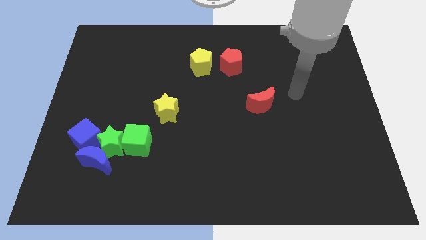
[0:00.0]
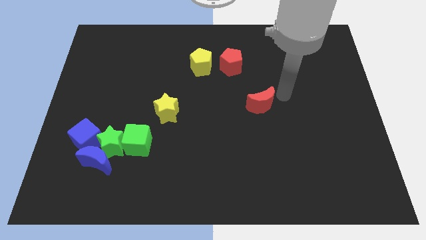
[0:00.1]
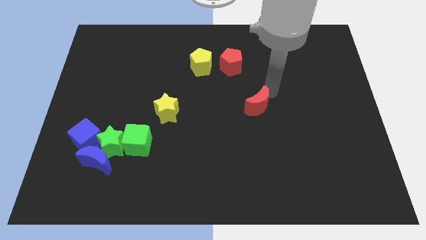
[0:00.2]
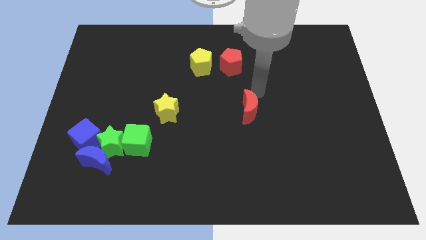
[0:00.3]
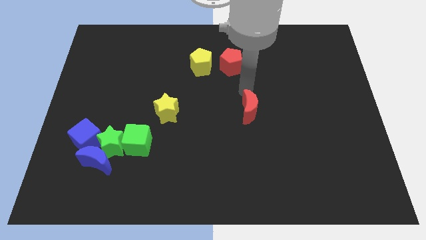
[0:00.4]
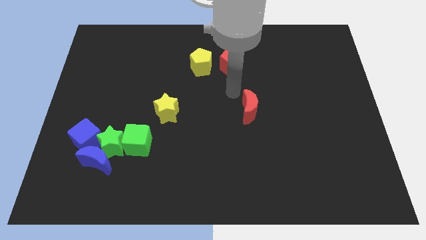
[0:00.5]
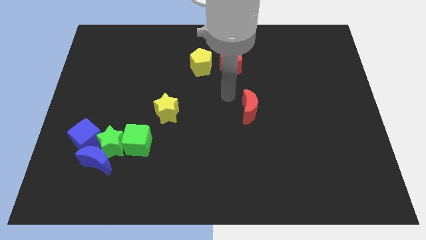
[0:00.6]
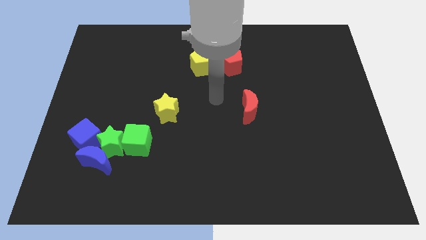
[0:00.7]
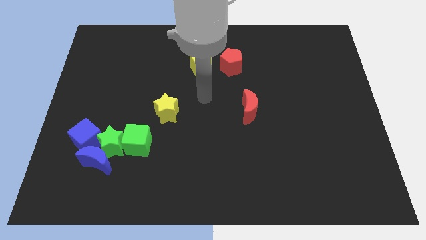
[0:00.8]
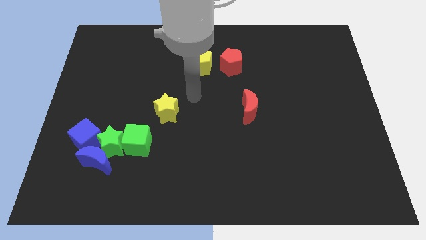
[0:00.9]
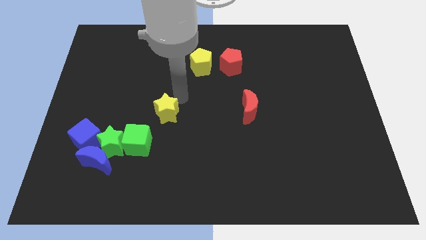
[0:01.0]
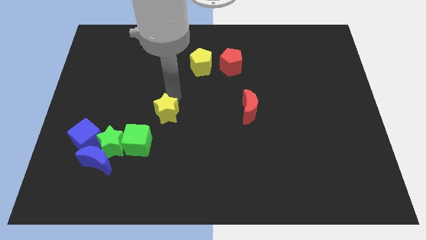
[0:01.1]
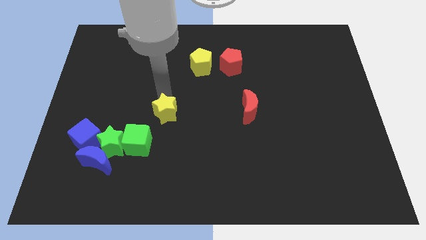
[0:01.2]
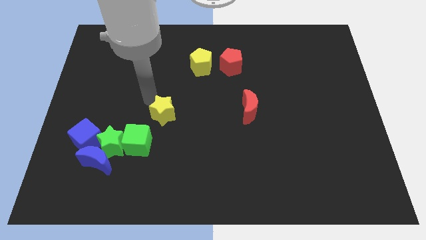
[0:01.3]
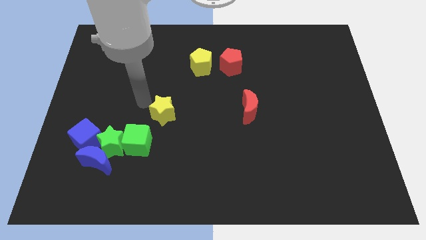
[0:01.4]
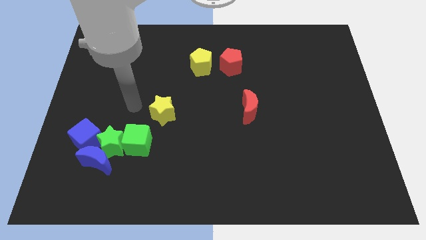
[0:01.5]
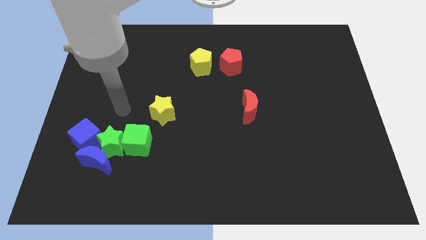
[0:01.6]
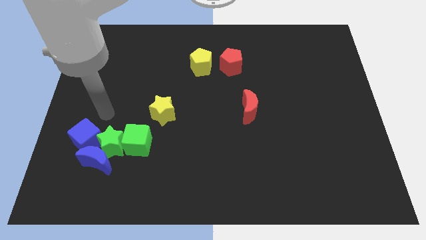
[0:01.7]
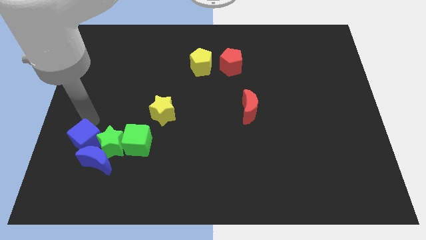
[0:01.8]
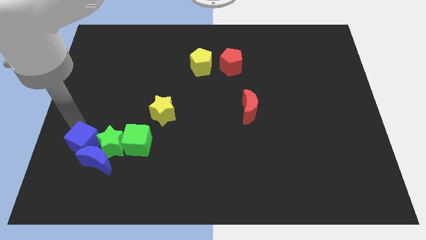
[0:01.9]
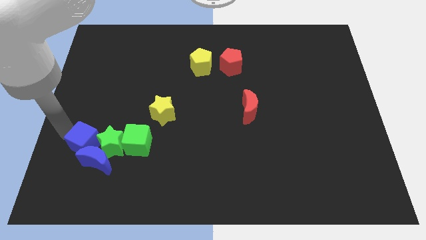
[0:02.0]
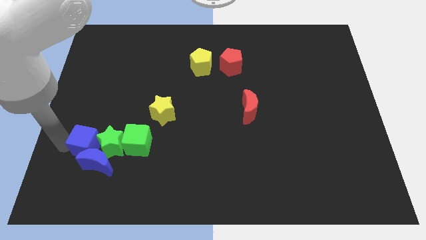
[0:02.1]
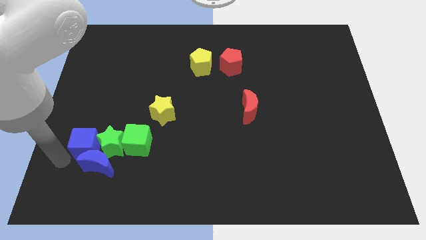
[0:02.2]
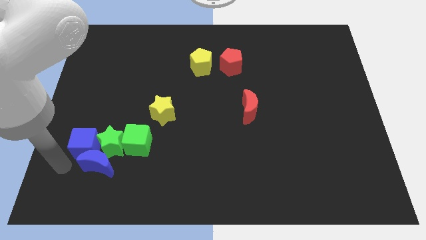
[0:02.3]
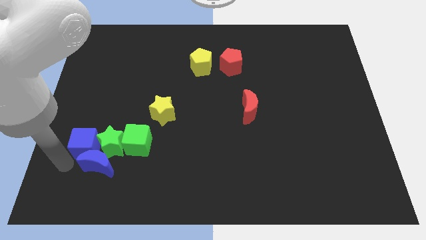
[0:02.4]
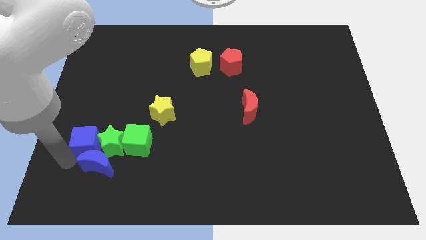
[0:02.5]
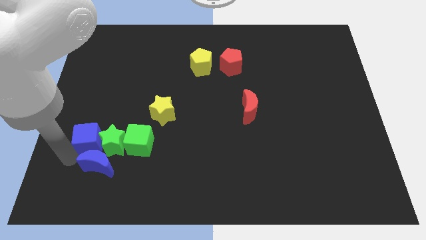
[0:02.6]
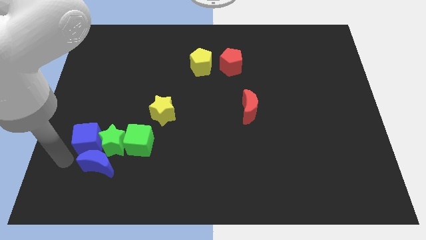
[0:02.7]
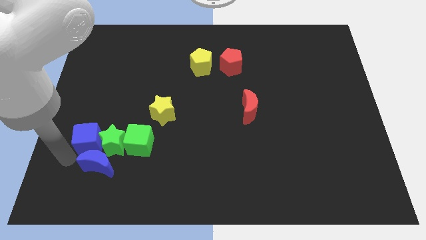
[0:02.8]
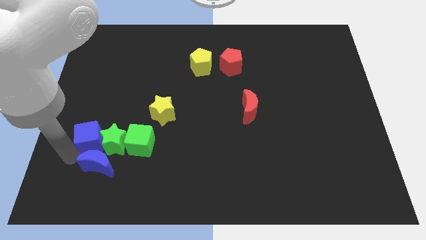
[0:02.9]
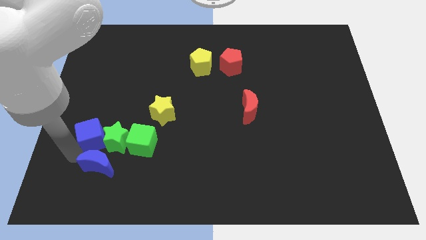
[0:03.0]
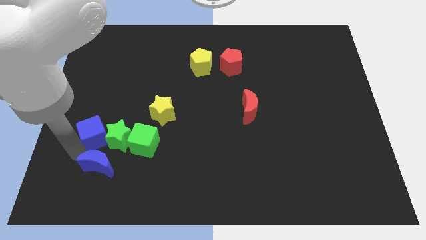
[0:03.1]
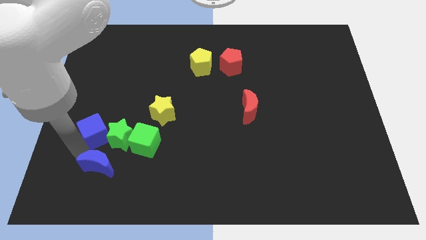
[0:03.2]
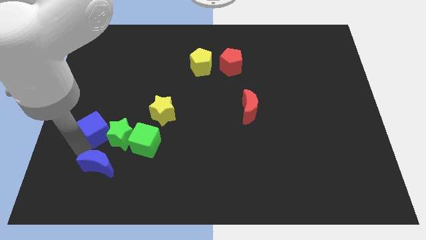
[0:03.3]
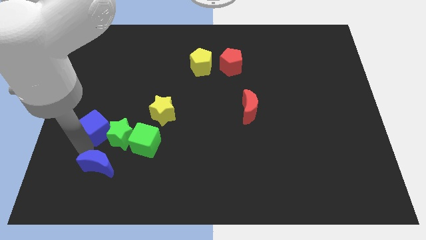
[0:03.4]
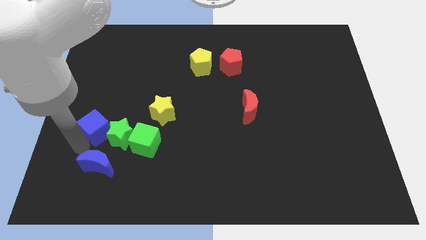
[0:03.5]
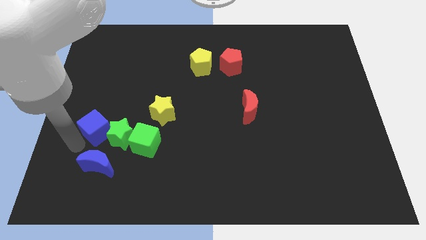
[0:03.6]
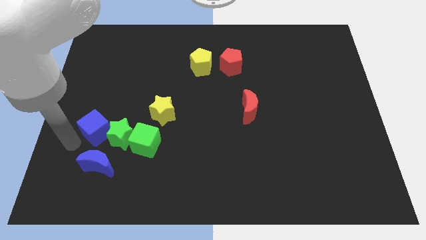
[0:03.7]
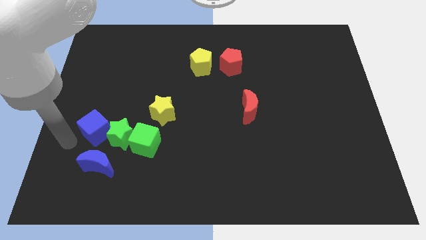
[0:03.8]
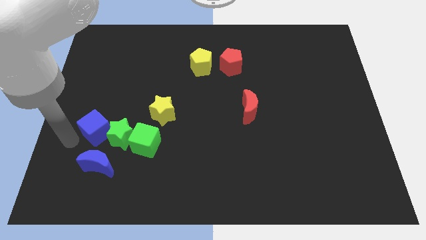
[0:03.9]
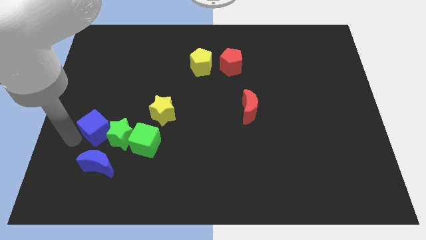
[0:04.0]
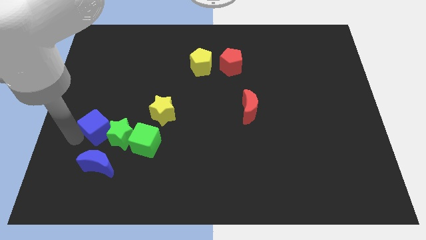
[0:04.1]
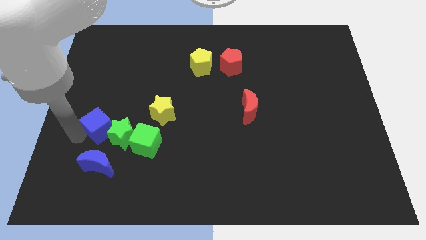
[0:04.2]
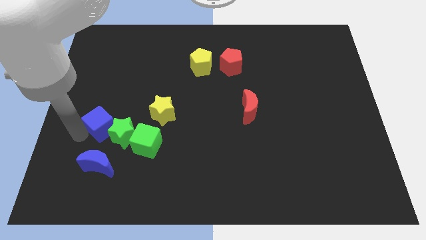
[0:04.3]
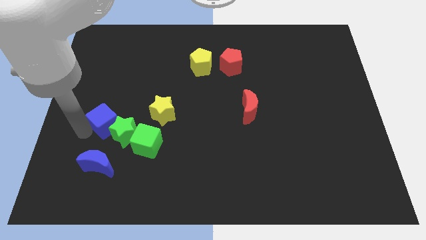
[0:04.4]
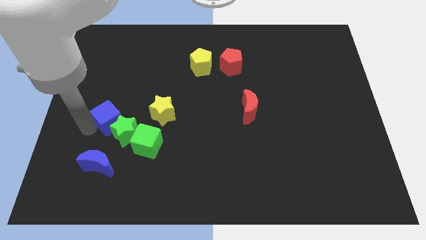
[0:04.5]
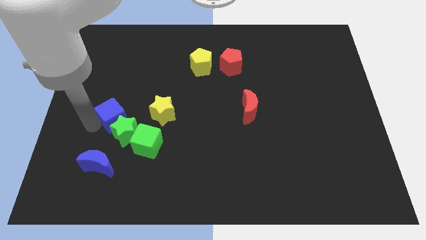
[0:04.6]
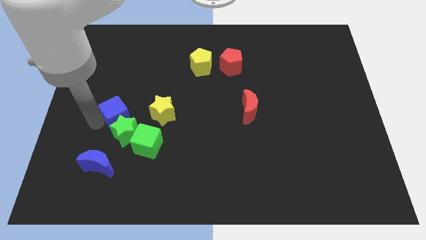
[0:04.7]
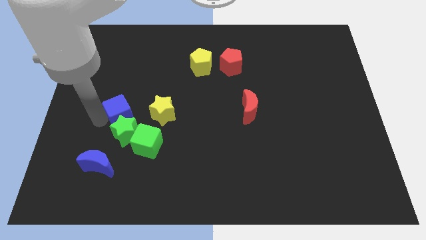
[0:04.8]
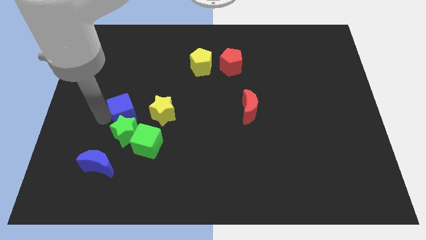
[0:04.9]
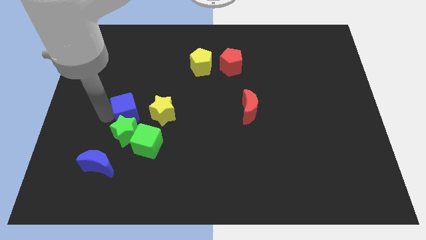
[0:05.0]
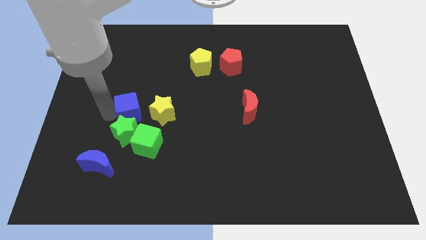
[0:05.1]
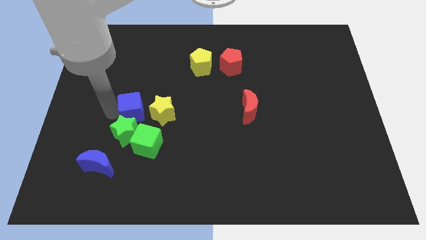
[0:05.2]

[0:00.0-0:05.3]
push the blue cube above the green cube

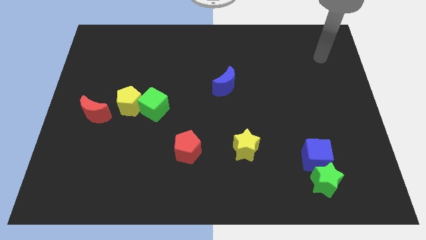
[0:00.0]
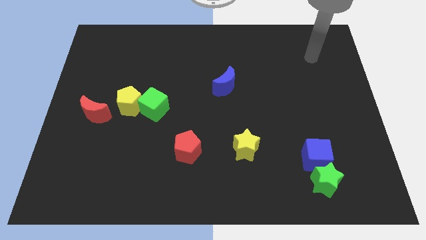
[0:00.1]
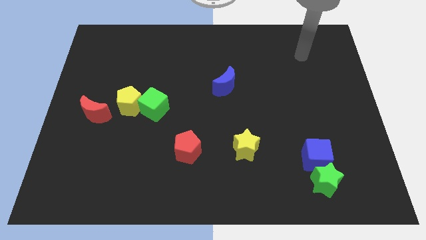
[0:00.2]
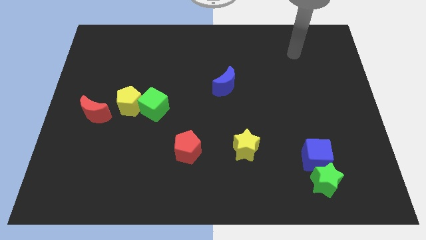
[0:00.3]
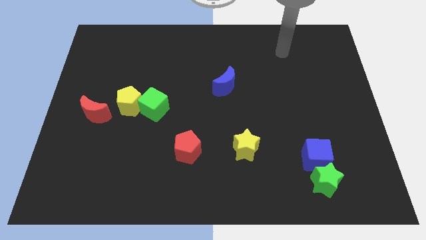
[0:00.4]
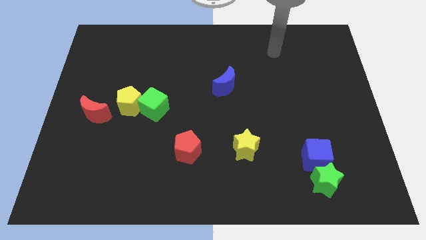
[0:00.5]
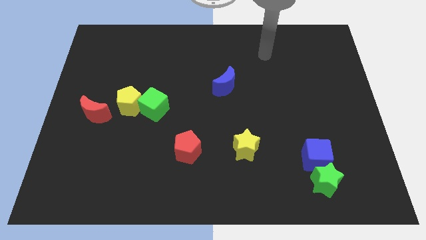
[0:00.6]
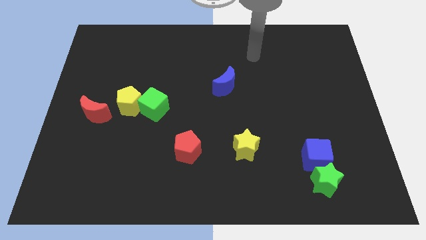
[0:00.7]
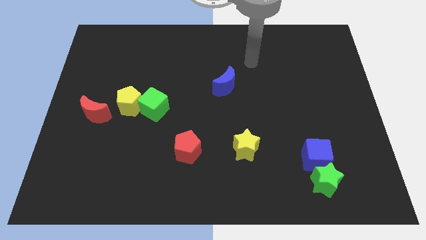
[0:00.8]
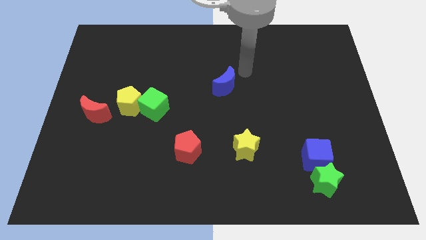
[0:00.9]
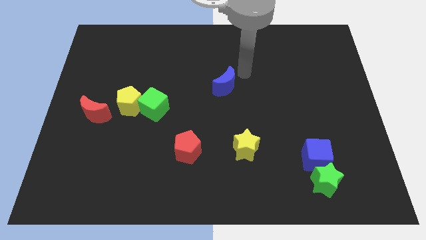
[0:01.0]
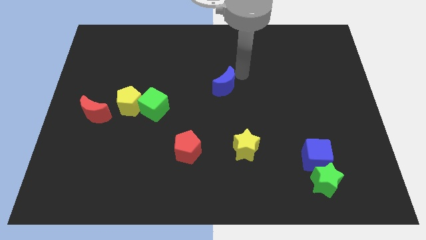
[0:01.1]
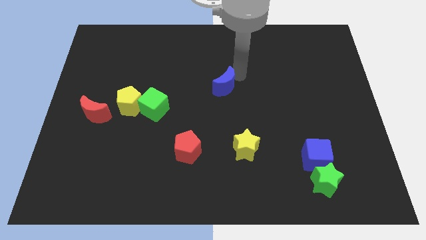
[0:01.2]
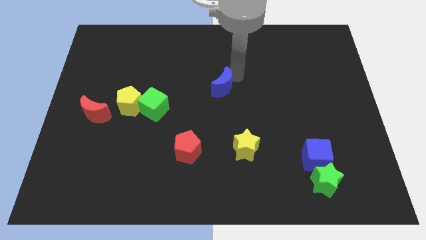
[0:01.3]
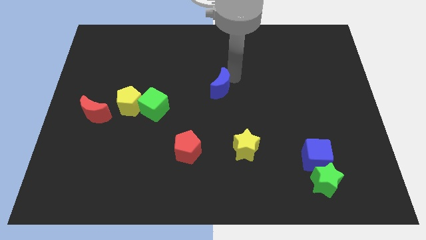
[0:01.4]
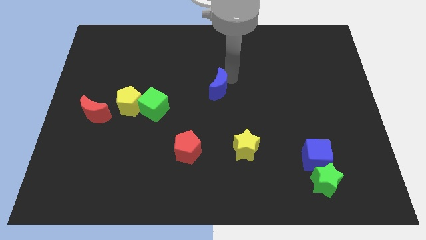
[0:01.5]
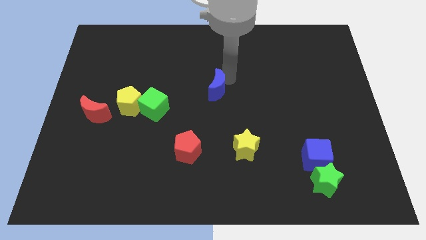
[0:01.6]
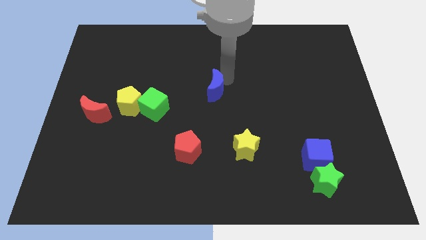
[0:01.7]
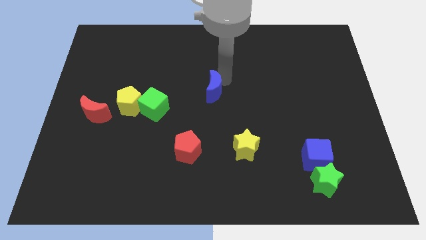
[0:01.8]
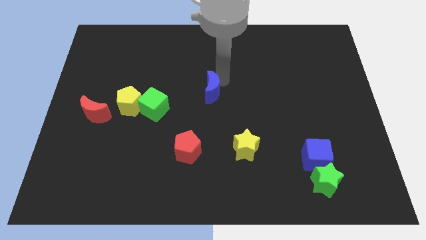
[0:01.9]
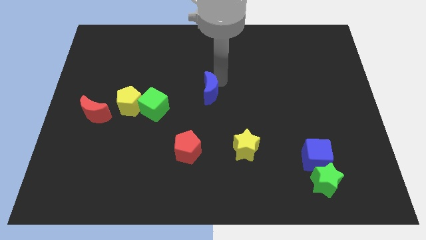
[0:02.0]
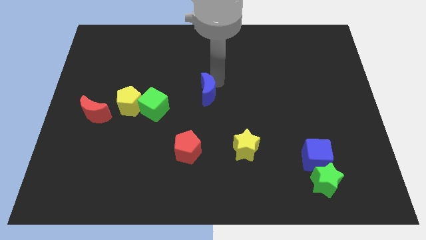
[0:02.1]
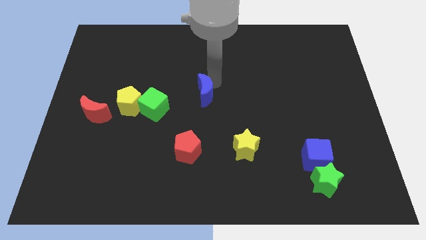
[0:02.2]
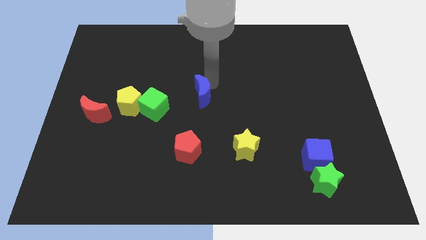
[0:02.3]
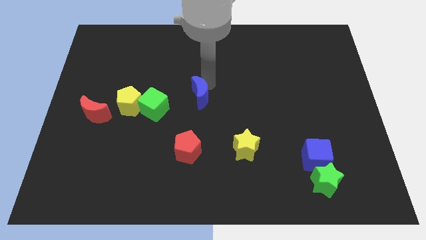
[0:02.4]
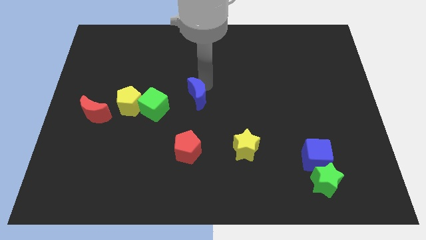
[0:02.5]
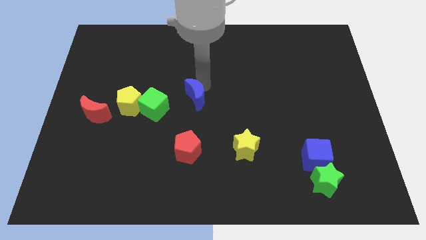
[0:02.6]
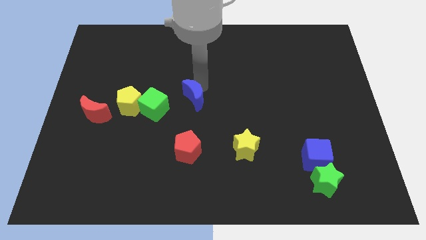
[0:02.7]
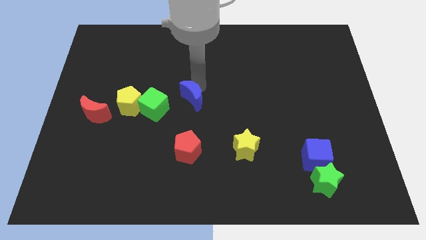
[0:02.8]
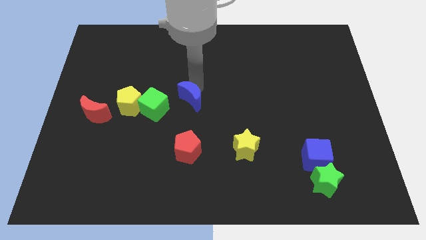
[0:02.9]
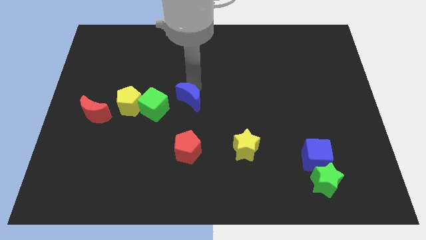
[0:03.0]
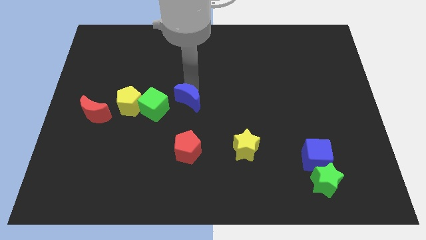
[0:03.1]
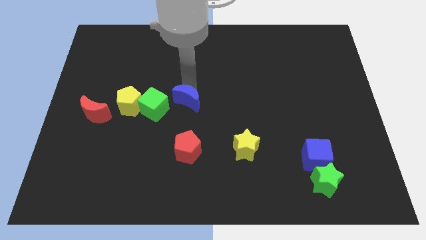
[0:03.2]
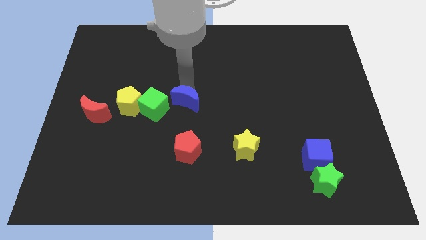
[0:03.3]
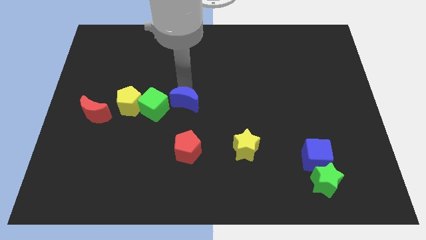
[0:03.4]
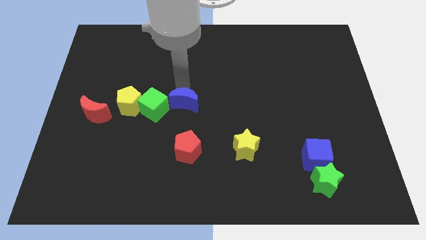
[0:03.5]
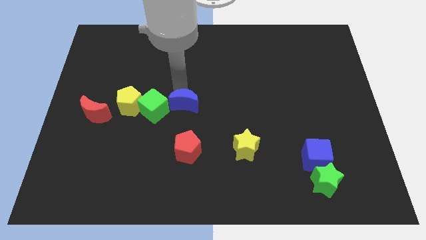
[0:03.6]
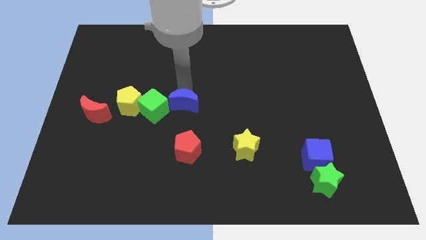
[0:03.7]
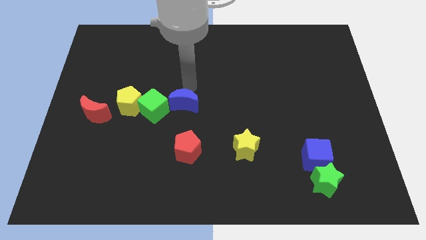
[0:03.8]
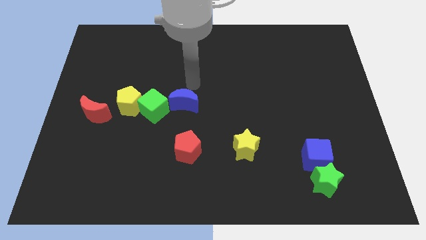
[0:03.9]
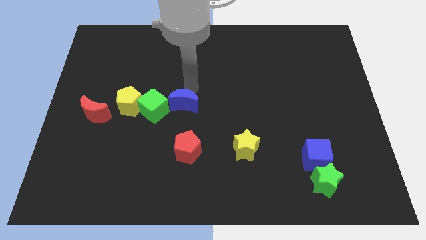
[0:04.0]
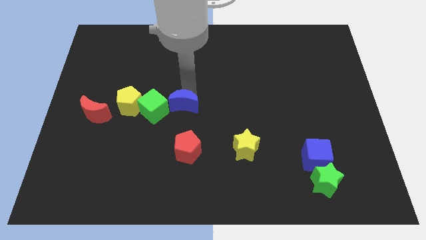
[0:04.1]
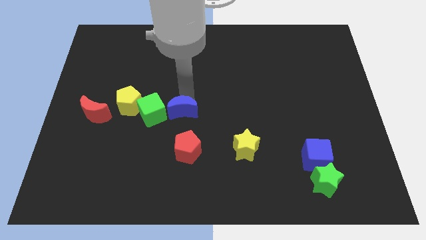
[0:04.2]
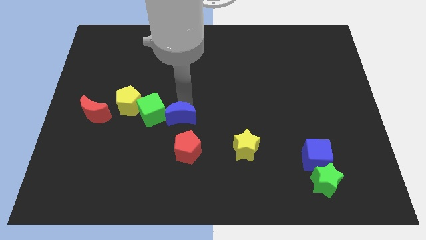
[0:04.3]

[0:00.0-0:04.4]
slide the blue moon to the bottom right side of the green cube
